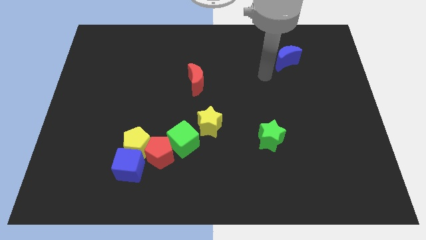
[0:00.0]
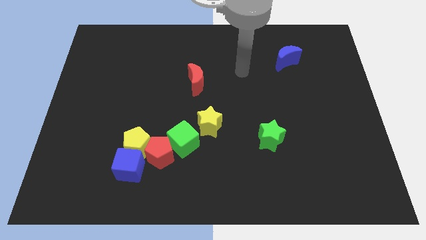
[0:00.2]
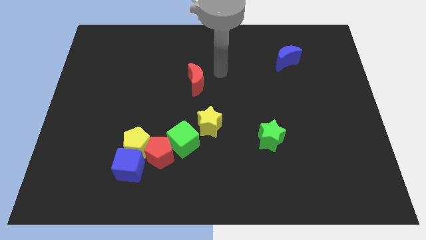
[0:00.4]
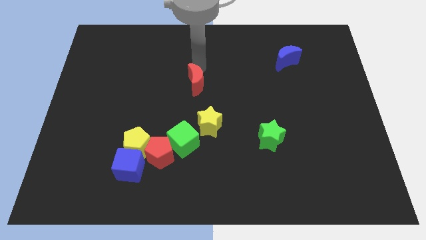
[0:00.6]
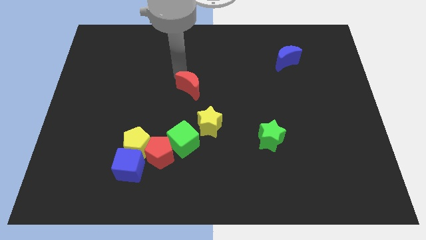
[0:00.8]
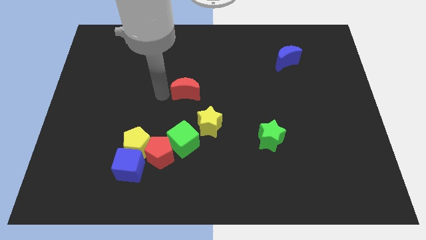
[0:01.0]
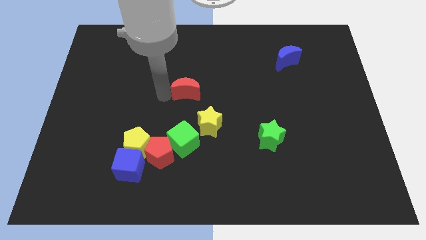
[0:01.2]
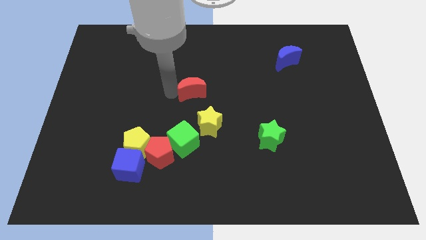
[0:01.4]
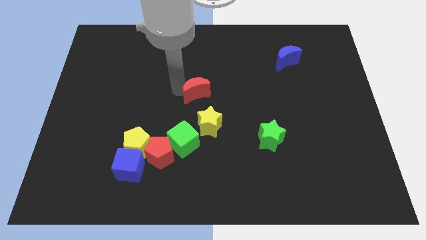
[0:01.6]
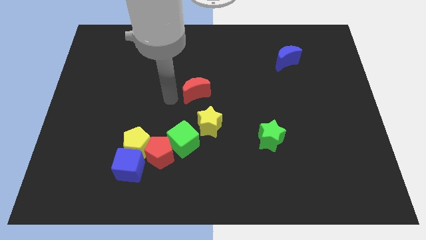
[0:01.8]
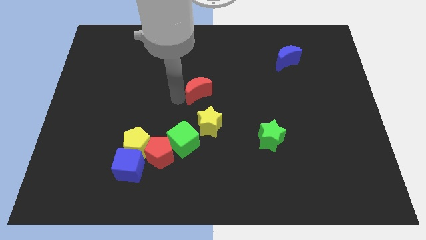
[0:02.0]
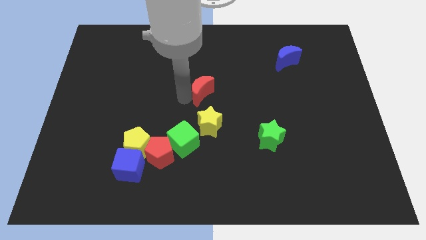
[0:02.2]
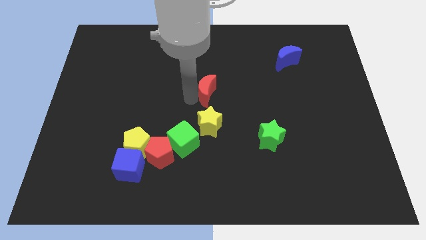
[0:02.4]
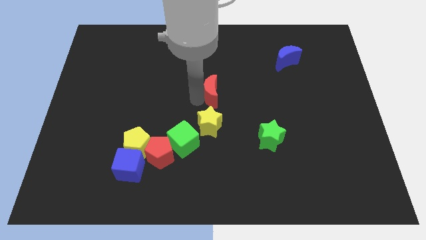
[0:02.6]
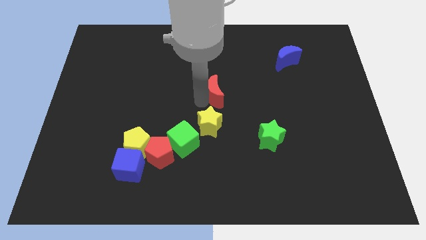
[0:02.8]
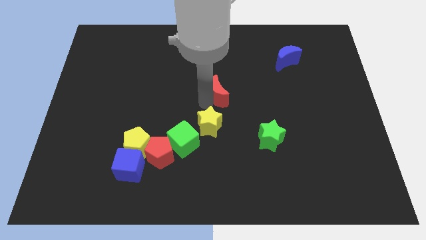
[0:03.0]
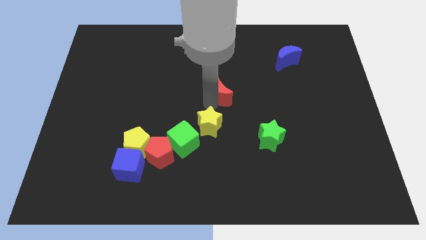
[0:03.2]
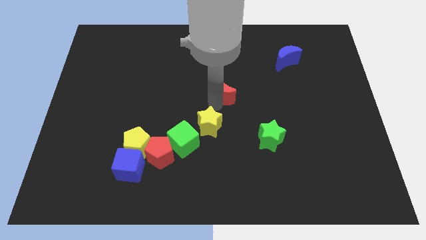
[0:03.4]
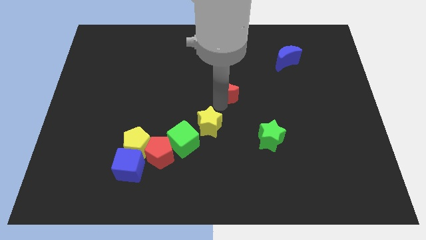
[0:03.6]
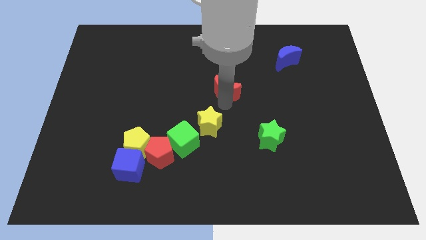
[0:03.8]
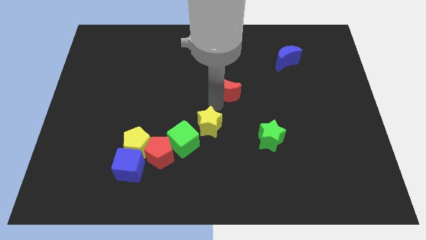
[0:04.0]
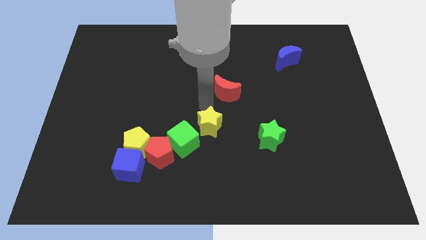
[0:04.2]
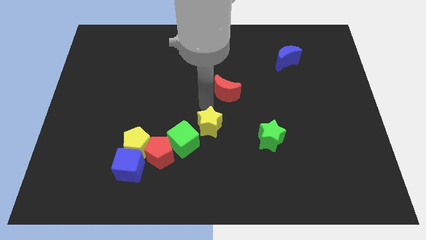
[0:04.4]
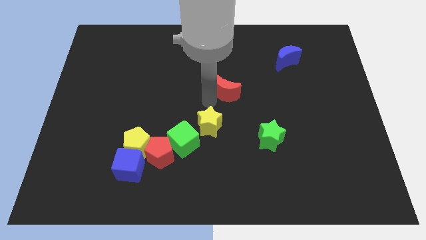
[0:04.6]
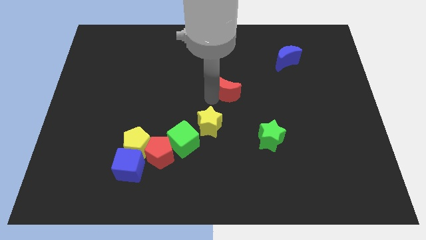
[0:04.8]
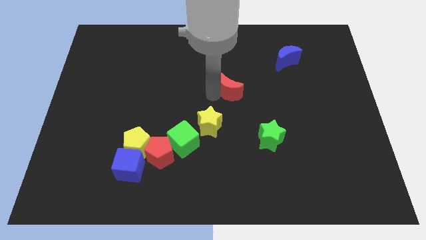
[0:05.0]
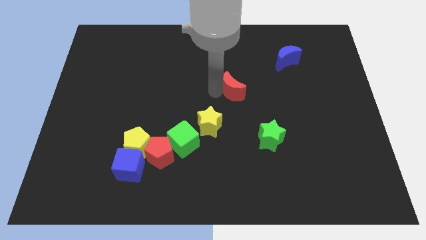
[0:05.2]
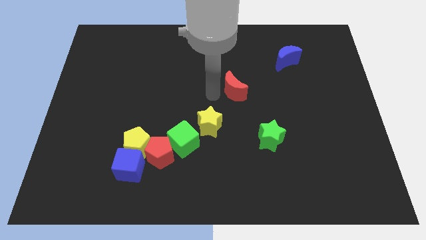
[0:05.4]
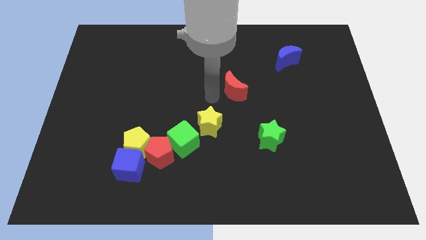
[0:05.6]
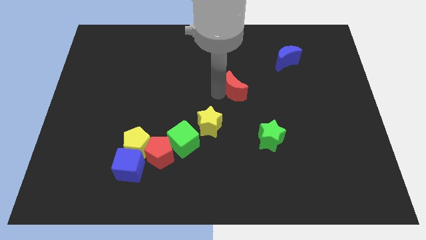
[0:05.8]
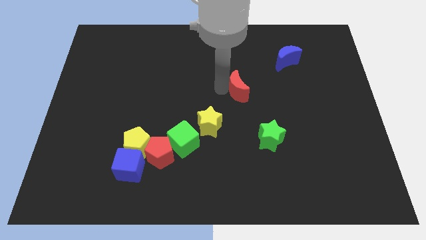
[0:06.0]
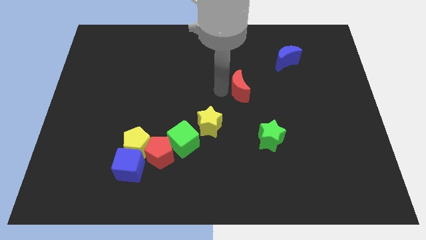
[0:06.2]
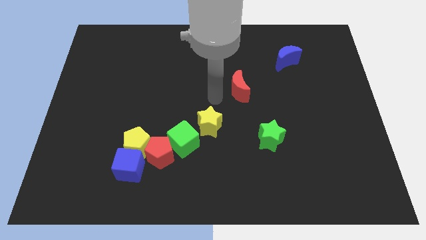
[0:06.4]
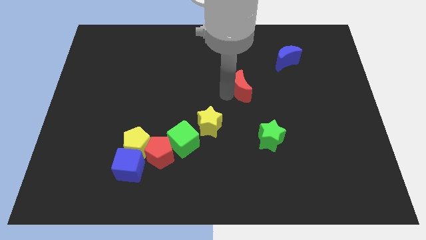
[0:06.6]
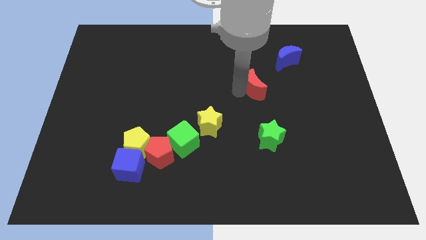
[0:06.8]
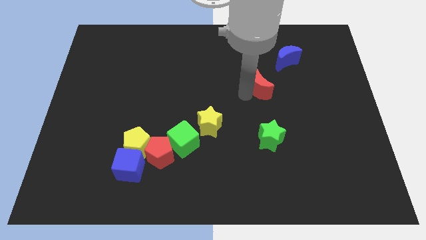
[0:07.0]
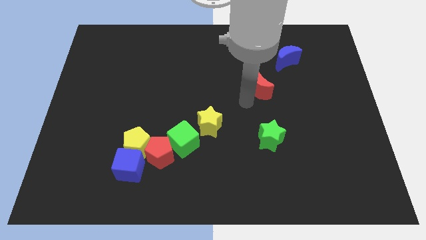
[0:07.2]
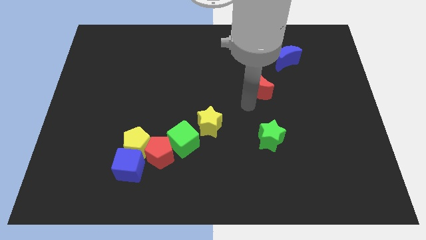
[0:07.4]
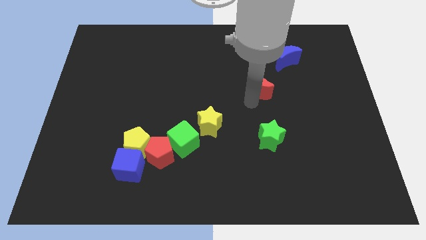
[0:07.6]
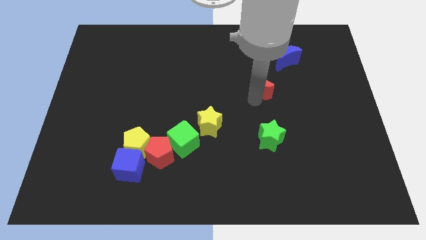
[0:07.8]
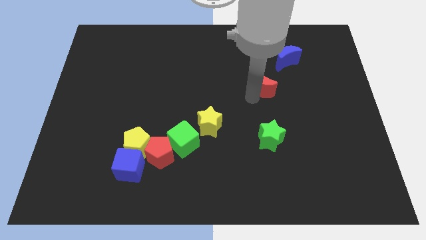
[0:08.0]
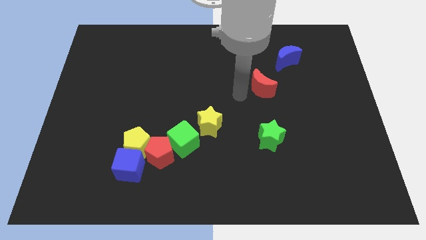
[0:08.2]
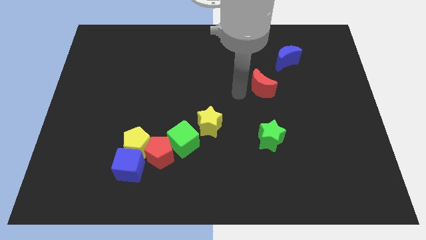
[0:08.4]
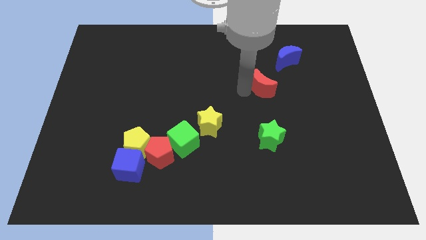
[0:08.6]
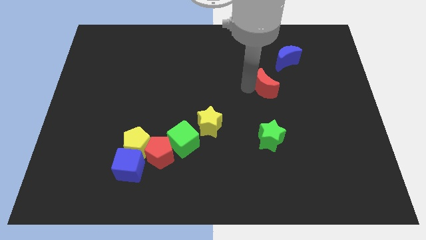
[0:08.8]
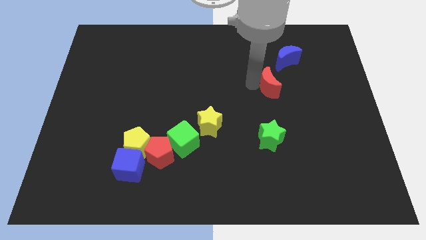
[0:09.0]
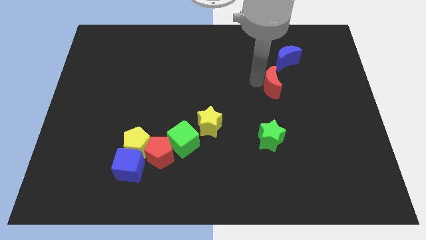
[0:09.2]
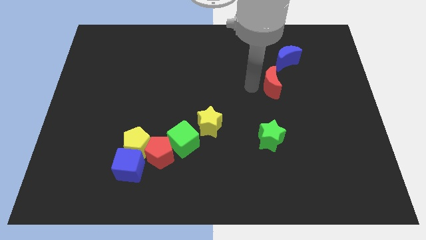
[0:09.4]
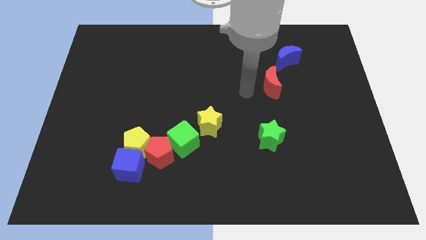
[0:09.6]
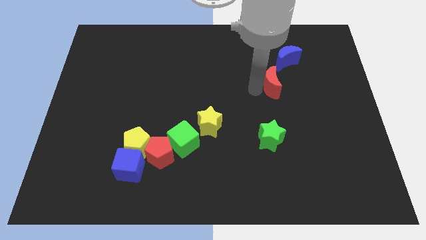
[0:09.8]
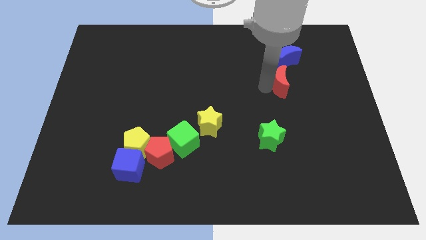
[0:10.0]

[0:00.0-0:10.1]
move the red moon right

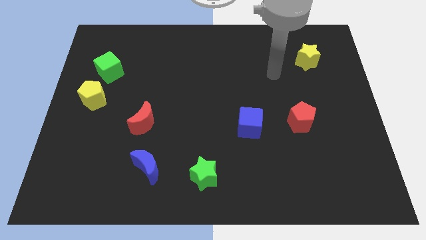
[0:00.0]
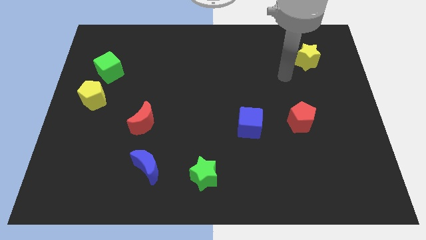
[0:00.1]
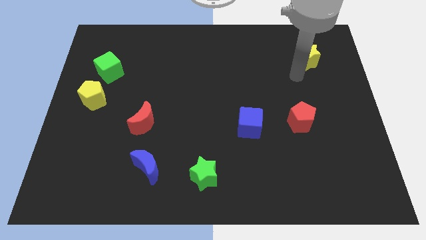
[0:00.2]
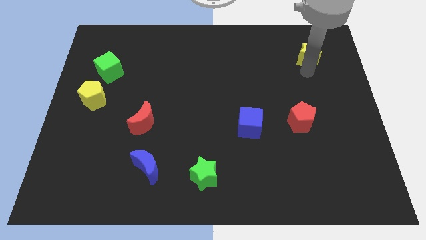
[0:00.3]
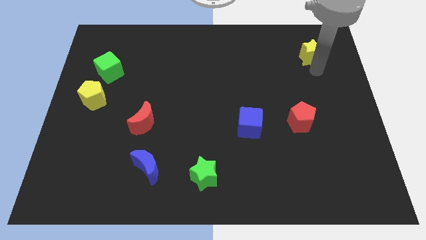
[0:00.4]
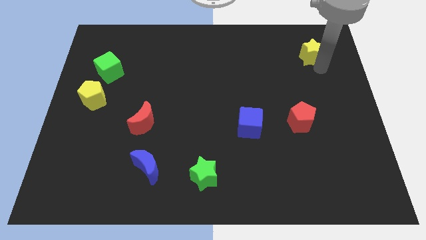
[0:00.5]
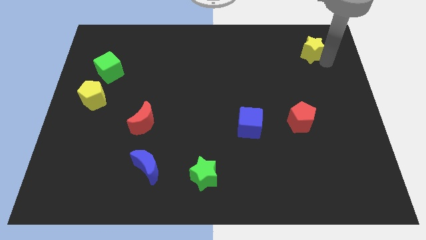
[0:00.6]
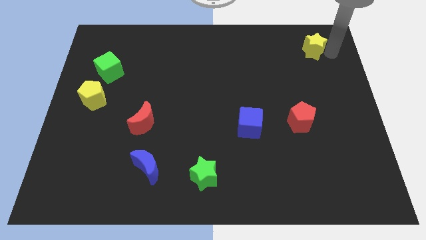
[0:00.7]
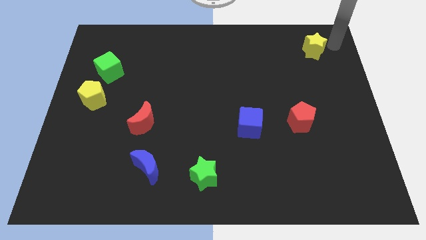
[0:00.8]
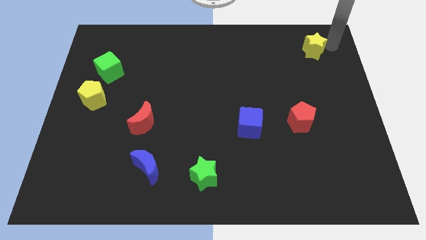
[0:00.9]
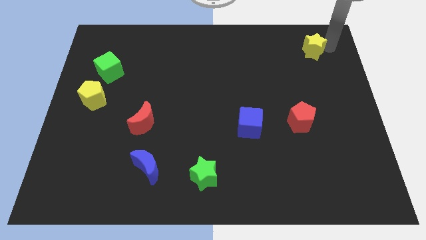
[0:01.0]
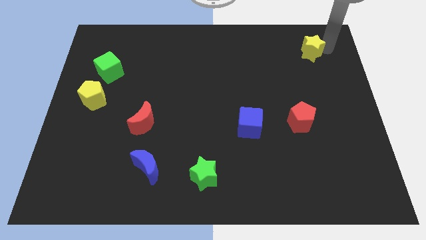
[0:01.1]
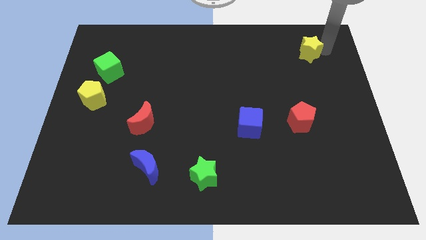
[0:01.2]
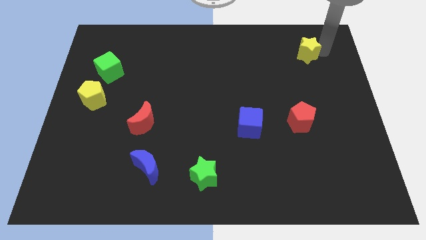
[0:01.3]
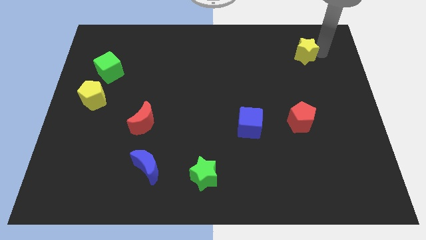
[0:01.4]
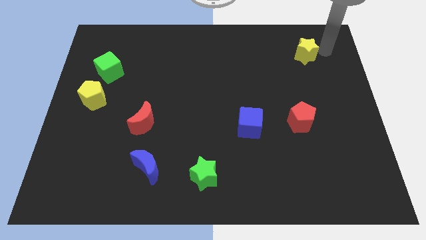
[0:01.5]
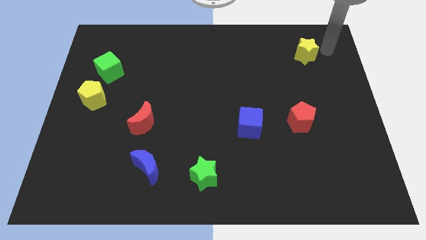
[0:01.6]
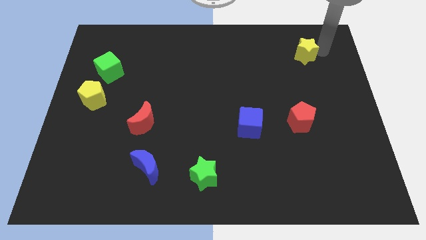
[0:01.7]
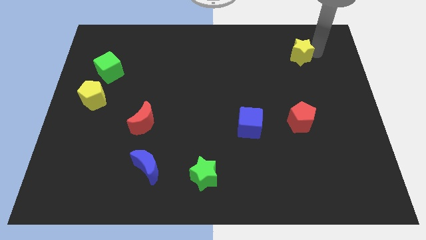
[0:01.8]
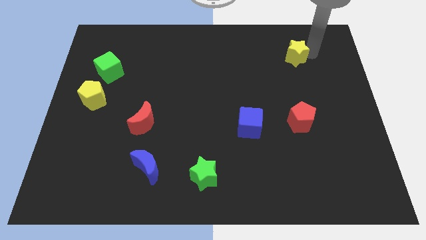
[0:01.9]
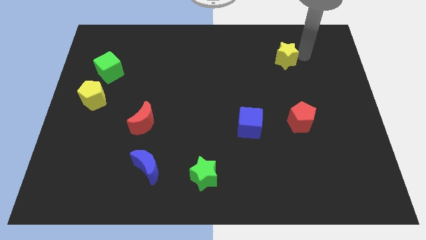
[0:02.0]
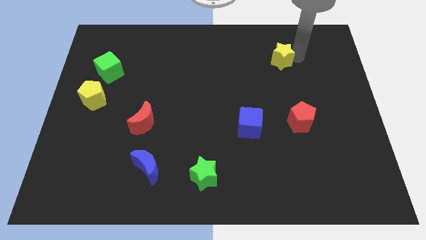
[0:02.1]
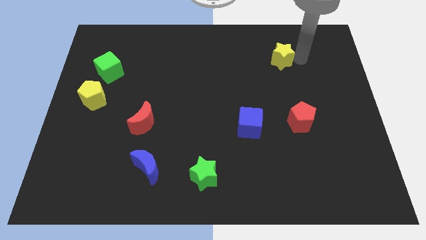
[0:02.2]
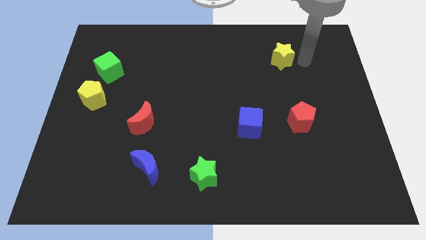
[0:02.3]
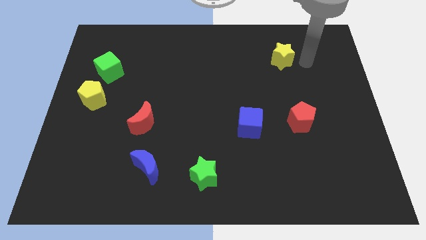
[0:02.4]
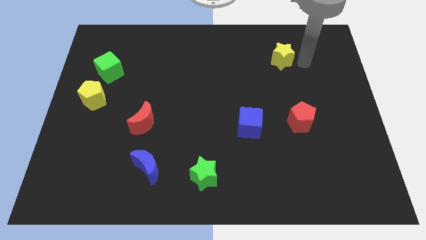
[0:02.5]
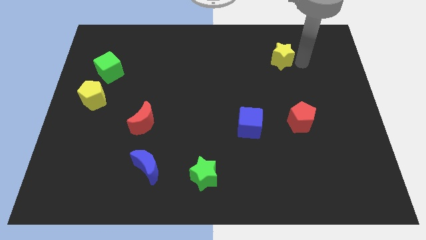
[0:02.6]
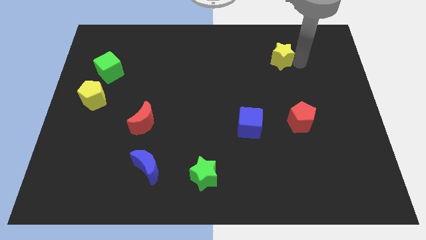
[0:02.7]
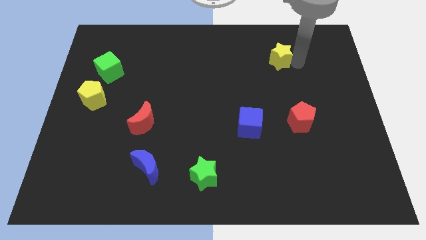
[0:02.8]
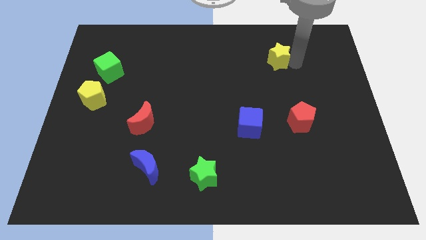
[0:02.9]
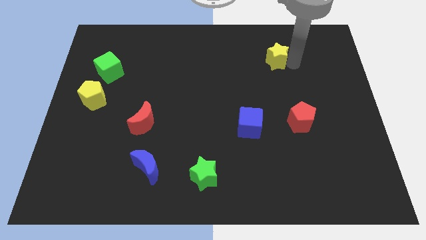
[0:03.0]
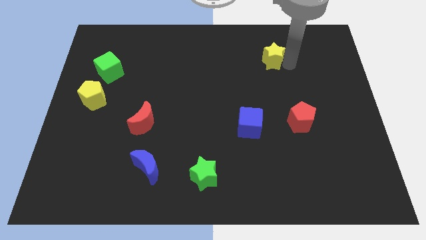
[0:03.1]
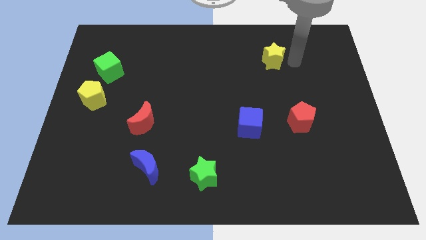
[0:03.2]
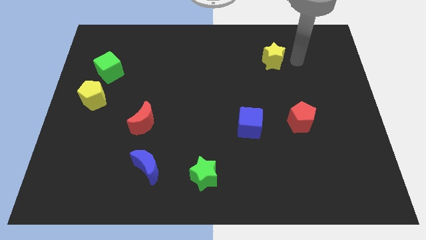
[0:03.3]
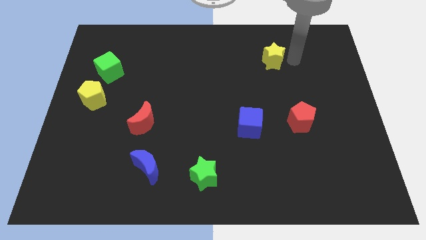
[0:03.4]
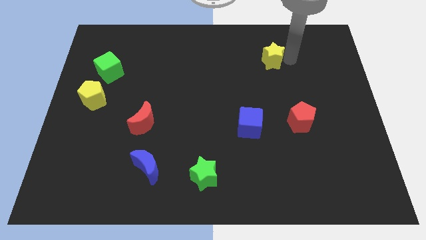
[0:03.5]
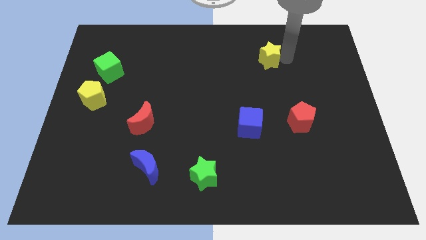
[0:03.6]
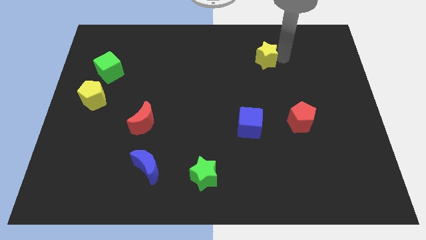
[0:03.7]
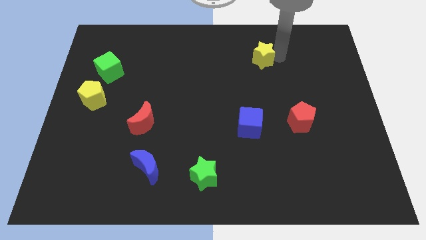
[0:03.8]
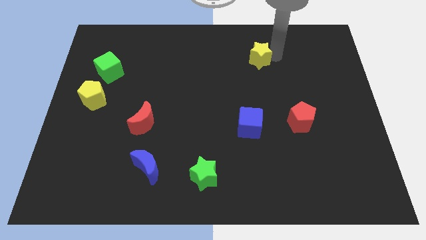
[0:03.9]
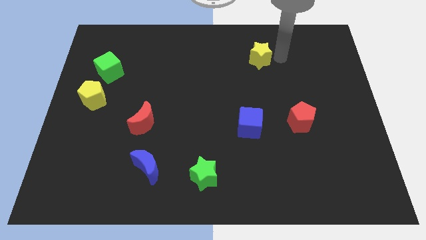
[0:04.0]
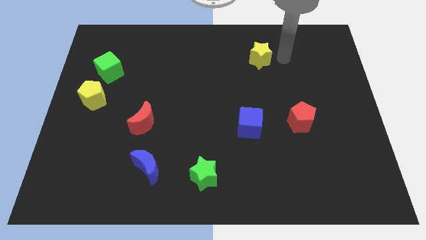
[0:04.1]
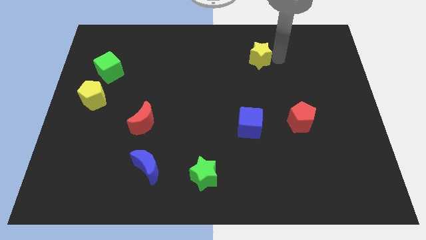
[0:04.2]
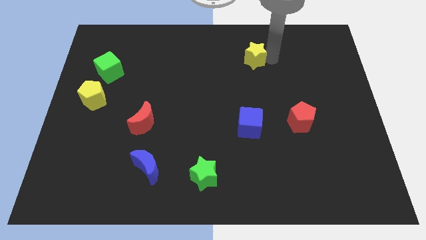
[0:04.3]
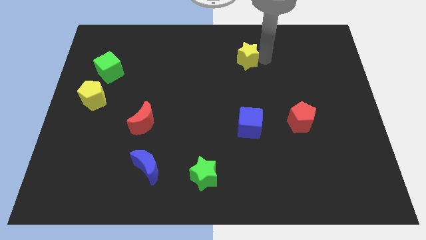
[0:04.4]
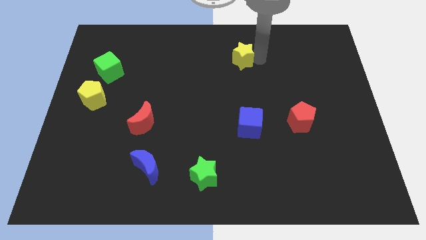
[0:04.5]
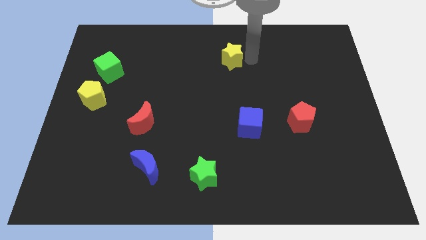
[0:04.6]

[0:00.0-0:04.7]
slide the yellow star to the left
